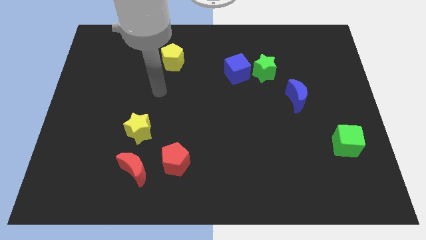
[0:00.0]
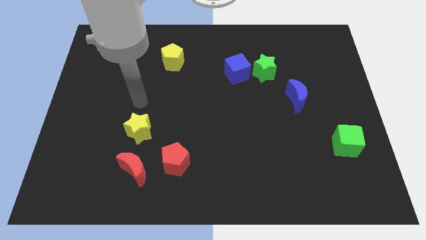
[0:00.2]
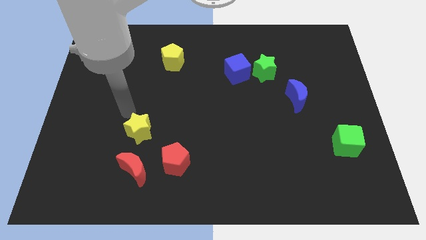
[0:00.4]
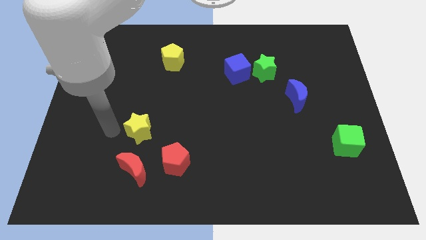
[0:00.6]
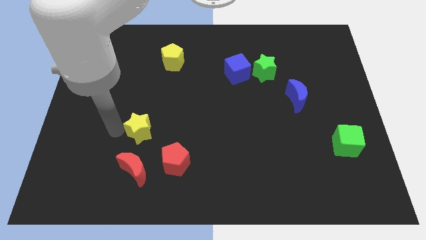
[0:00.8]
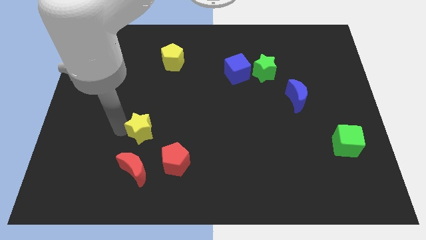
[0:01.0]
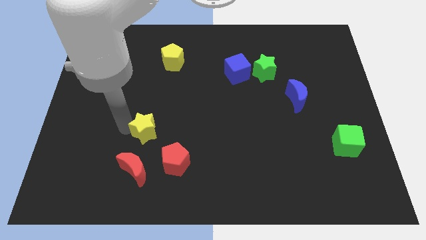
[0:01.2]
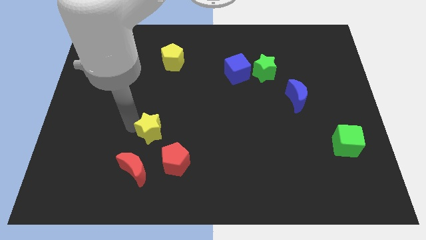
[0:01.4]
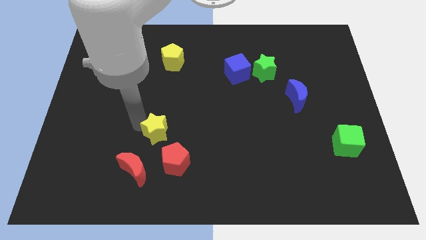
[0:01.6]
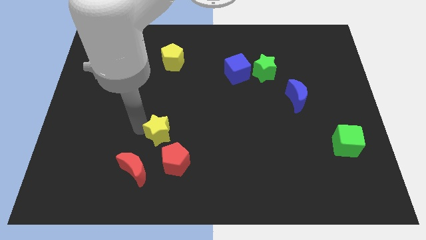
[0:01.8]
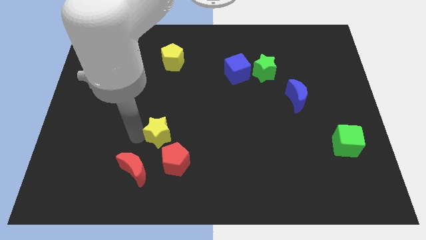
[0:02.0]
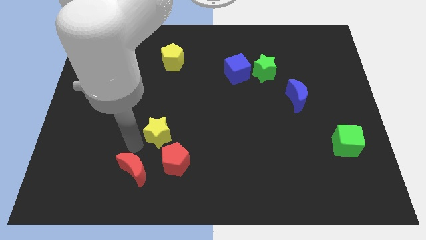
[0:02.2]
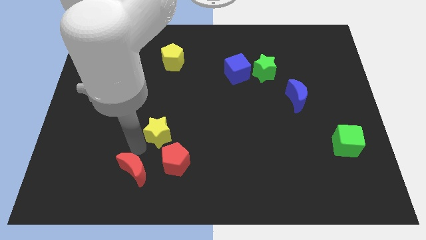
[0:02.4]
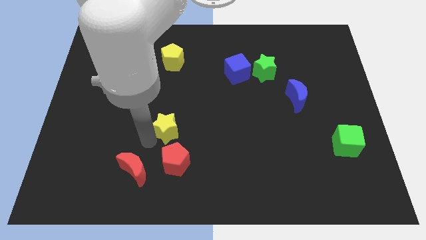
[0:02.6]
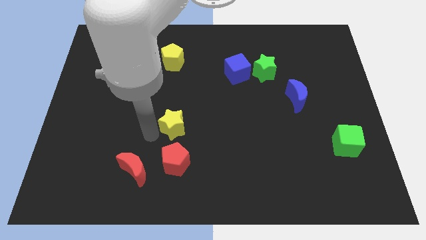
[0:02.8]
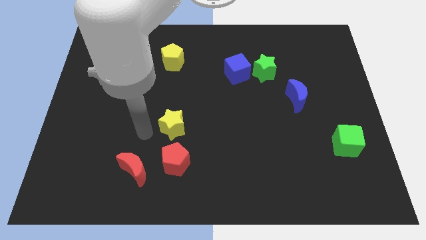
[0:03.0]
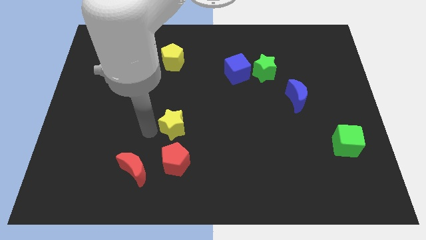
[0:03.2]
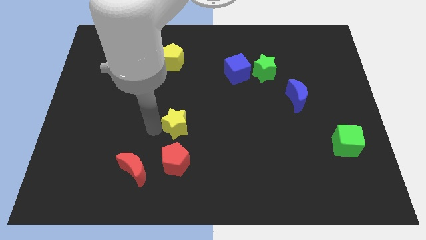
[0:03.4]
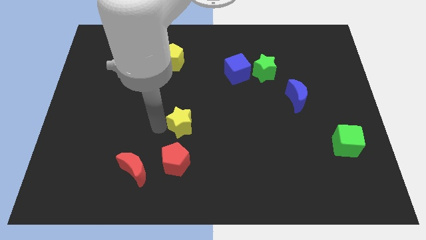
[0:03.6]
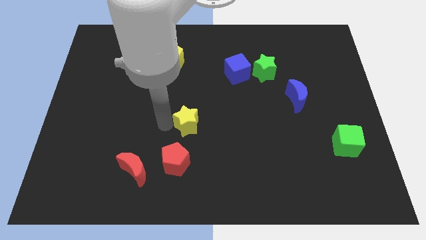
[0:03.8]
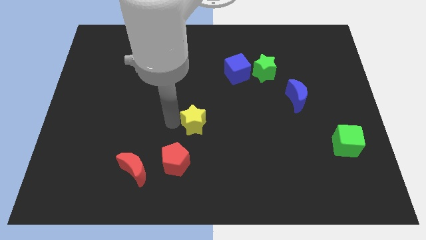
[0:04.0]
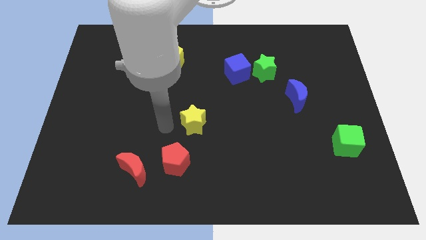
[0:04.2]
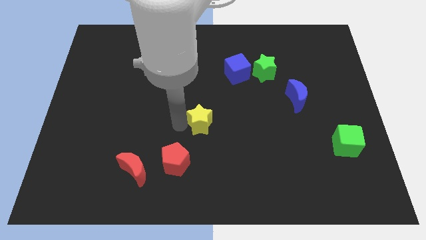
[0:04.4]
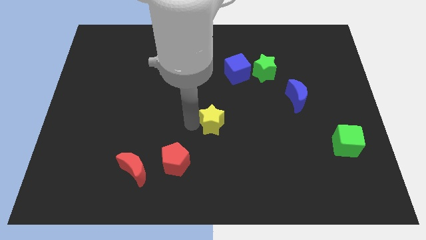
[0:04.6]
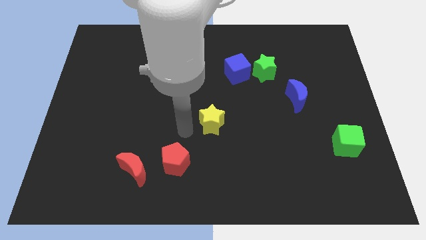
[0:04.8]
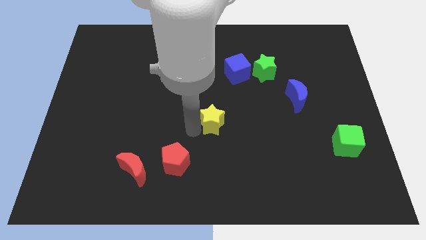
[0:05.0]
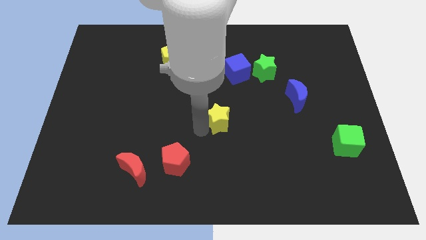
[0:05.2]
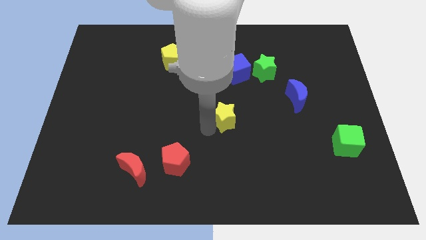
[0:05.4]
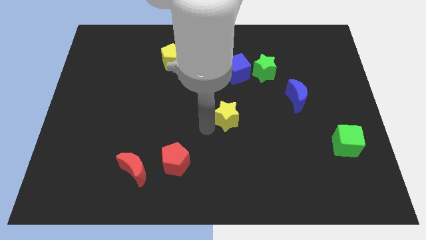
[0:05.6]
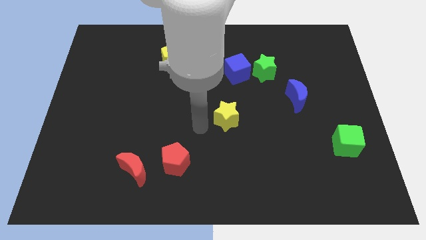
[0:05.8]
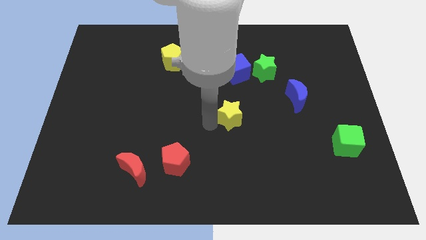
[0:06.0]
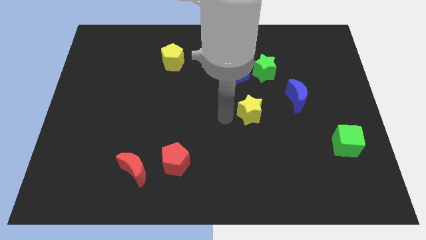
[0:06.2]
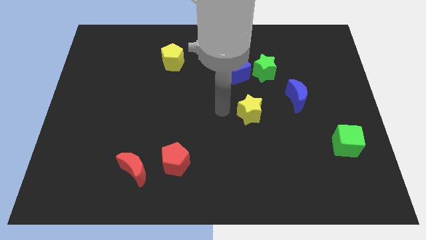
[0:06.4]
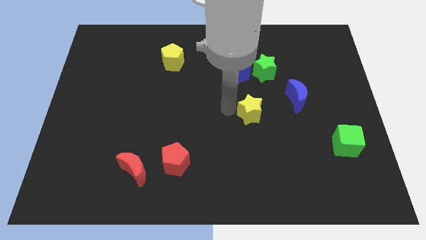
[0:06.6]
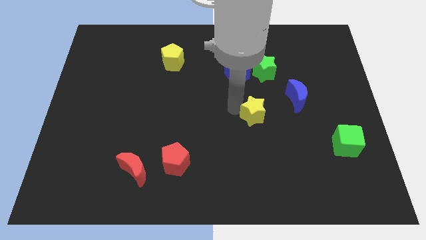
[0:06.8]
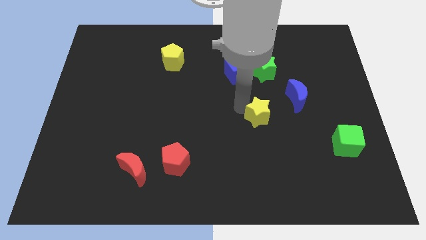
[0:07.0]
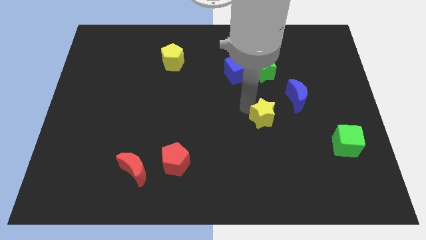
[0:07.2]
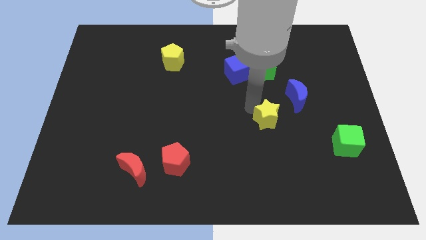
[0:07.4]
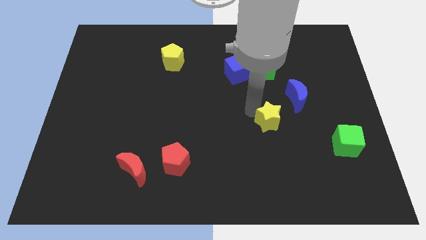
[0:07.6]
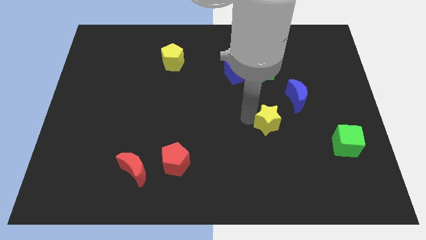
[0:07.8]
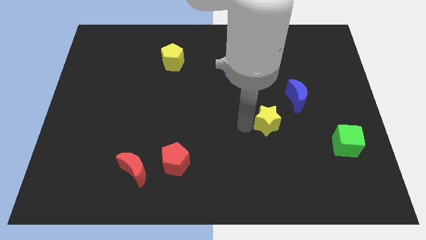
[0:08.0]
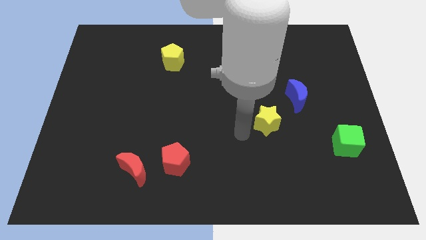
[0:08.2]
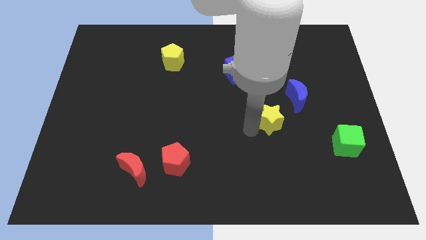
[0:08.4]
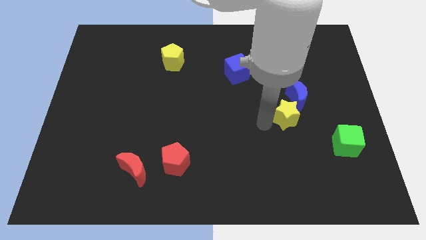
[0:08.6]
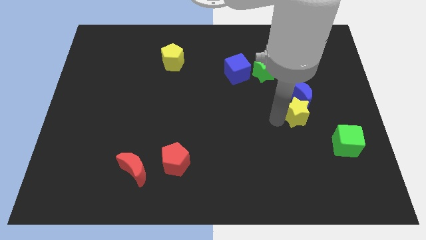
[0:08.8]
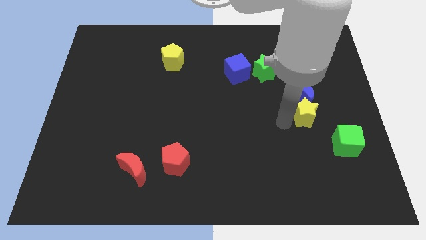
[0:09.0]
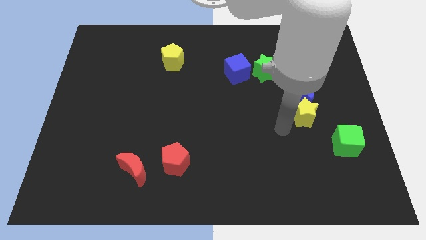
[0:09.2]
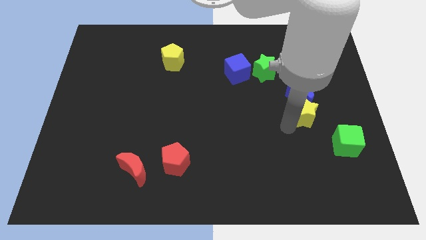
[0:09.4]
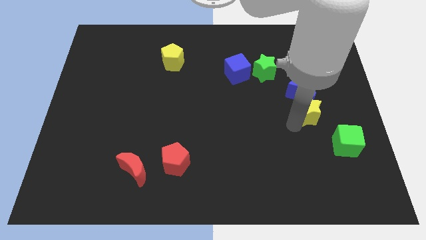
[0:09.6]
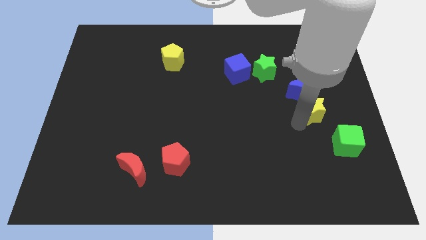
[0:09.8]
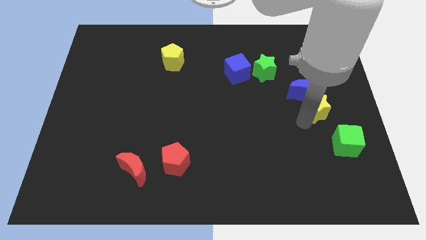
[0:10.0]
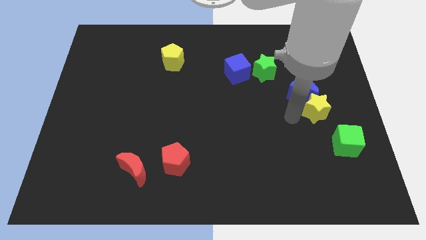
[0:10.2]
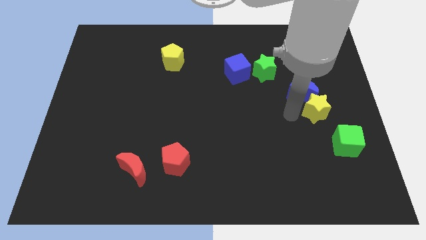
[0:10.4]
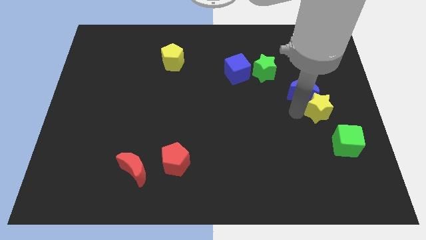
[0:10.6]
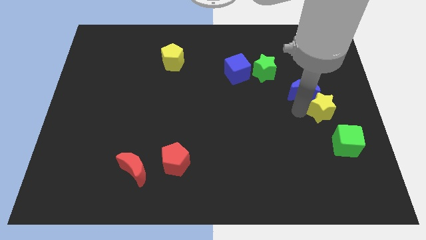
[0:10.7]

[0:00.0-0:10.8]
move the yellow star to the right side

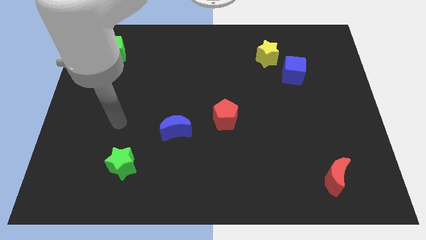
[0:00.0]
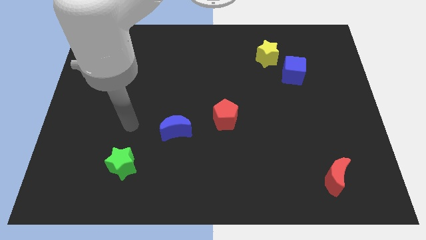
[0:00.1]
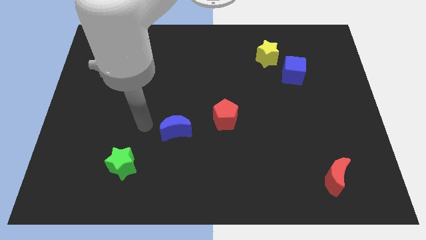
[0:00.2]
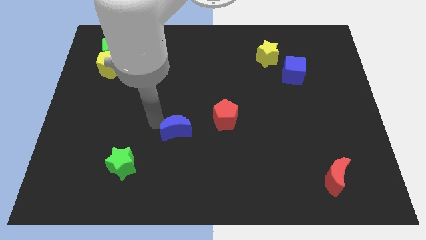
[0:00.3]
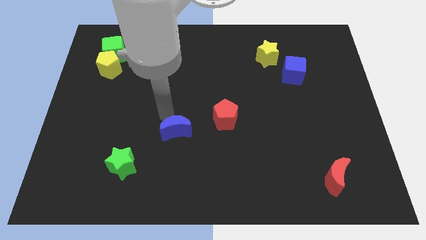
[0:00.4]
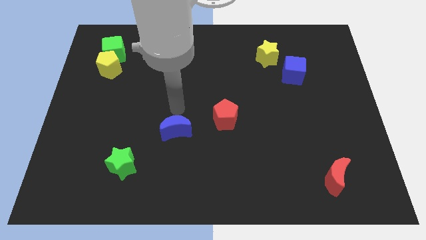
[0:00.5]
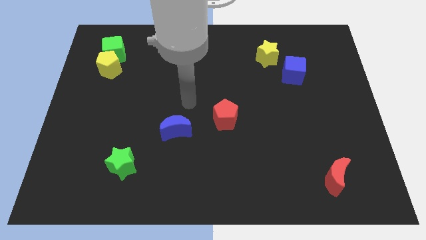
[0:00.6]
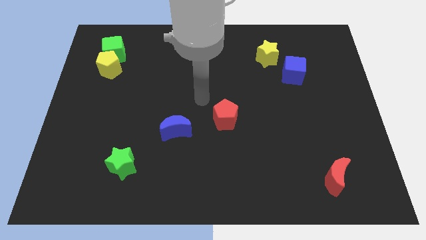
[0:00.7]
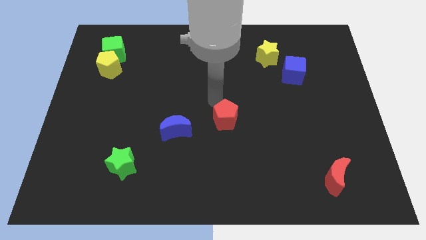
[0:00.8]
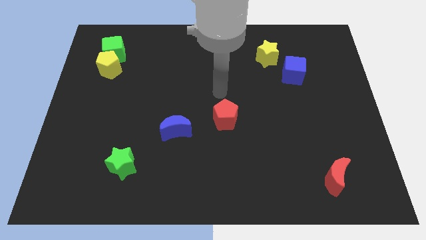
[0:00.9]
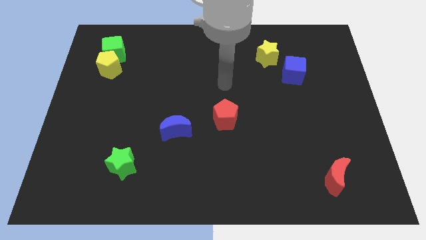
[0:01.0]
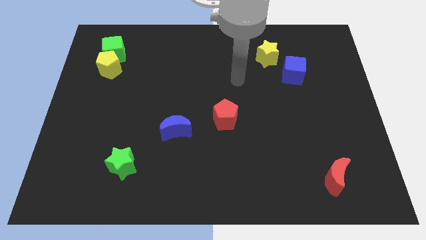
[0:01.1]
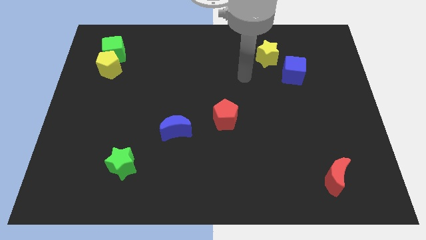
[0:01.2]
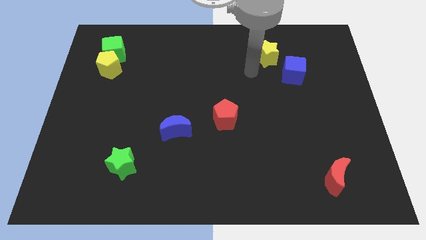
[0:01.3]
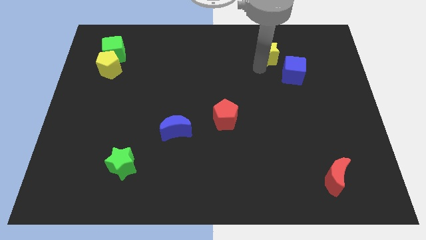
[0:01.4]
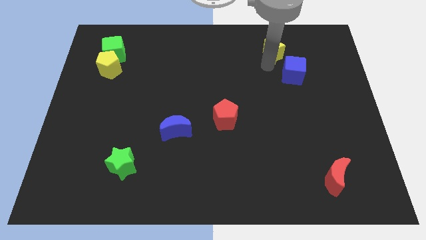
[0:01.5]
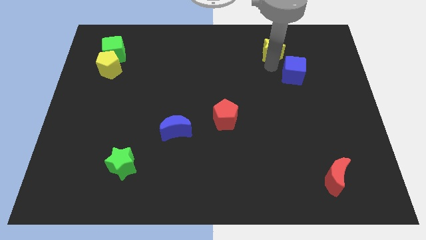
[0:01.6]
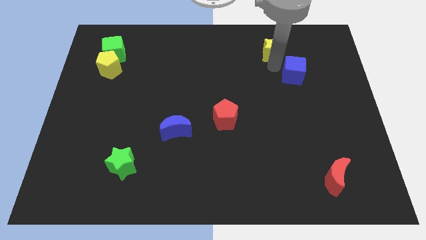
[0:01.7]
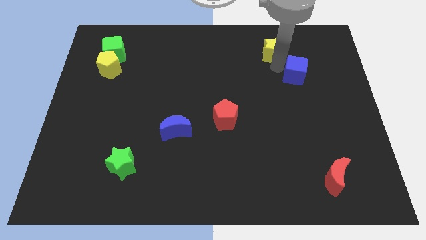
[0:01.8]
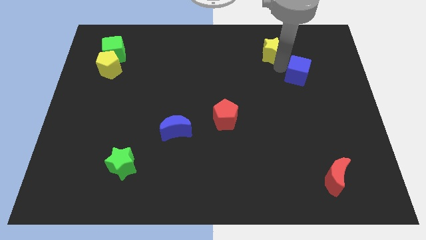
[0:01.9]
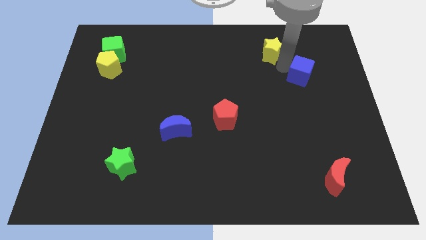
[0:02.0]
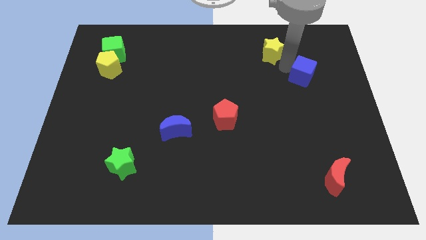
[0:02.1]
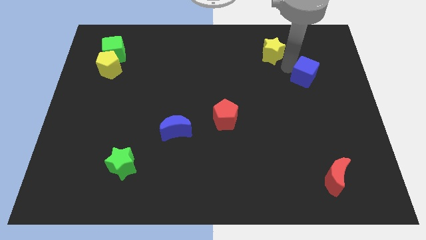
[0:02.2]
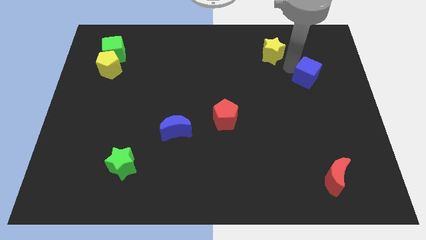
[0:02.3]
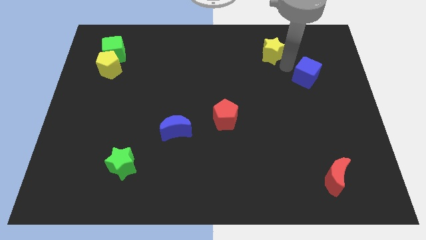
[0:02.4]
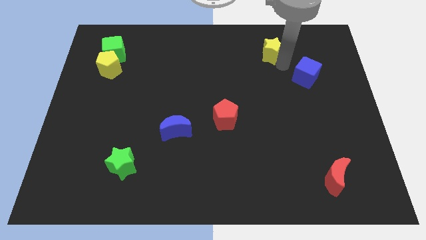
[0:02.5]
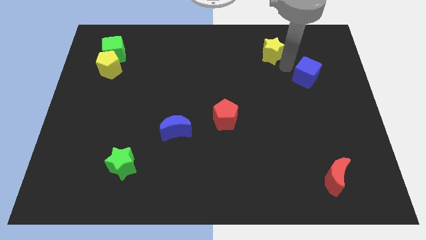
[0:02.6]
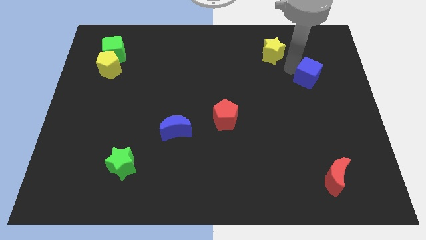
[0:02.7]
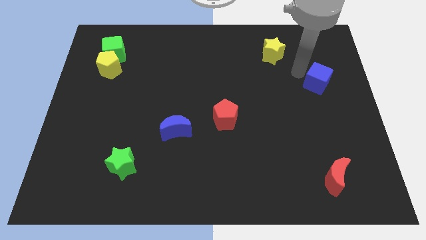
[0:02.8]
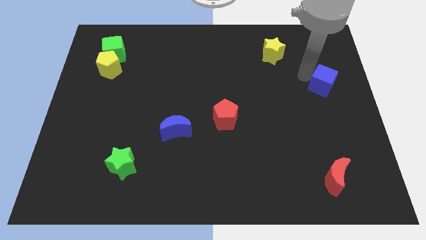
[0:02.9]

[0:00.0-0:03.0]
put the blue cube to the right side
